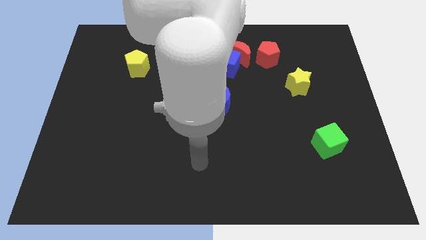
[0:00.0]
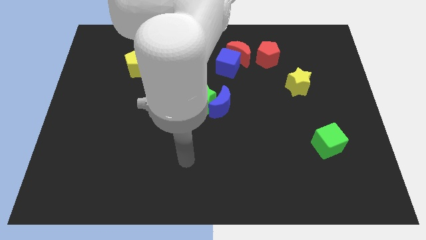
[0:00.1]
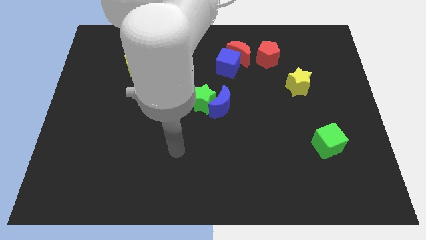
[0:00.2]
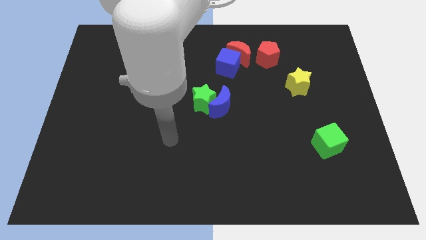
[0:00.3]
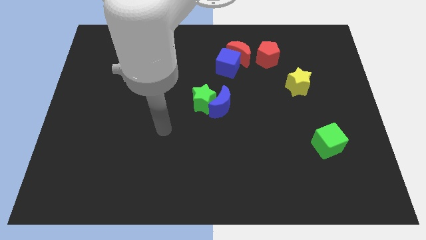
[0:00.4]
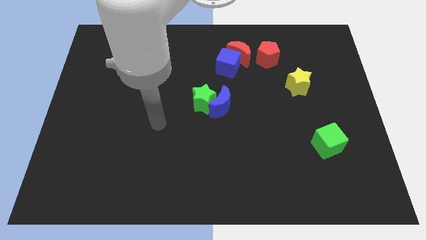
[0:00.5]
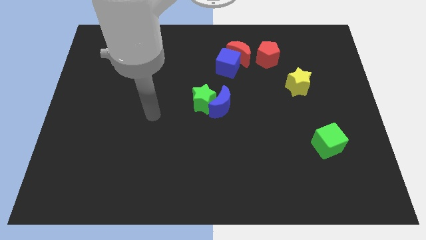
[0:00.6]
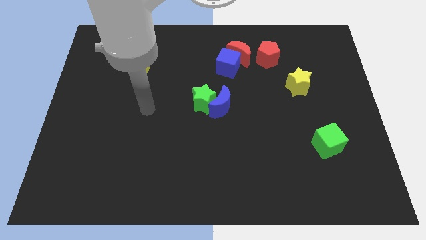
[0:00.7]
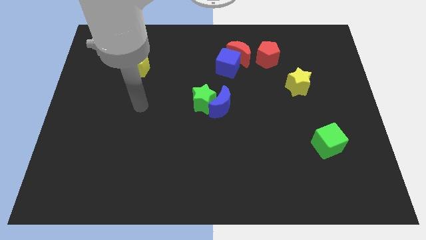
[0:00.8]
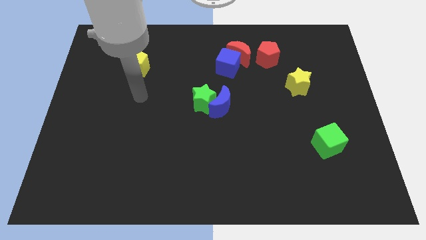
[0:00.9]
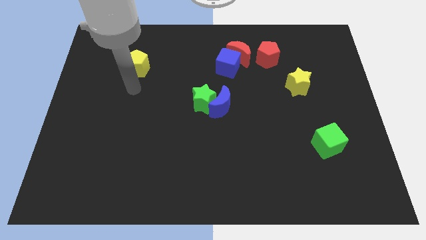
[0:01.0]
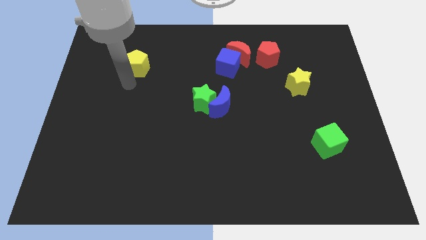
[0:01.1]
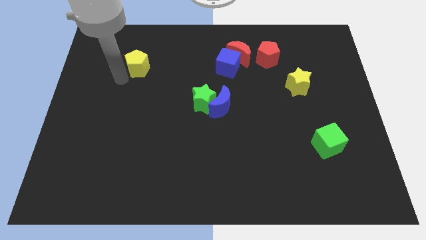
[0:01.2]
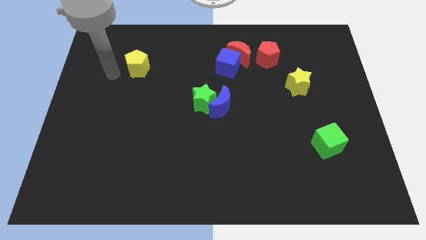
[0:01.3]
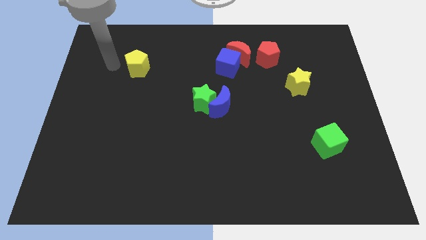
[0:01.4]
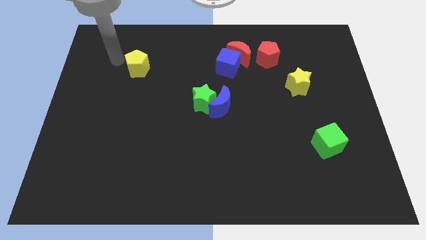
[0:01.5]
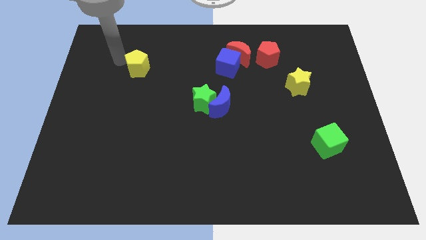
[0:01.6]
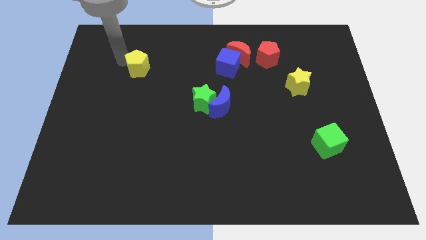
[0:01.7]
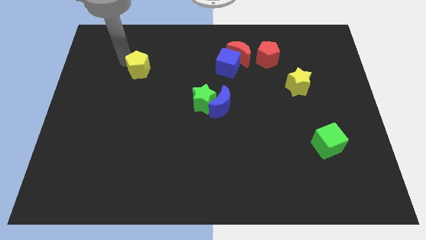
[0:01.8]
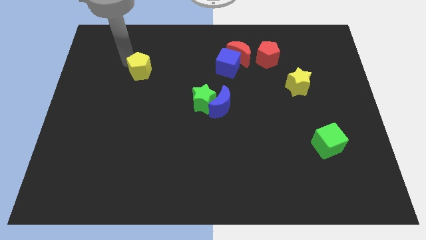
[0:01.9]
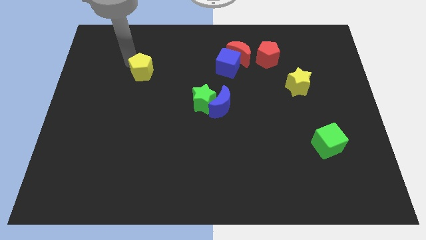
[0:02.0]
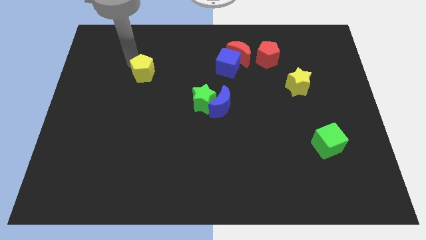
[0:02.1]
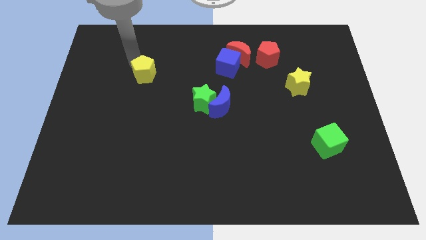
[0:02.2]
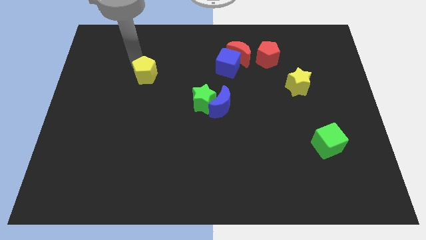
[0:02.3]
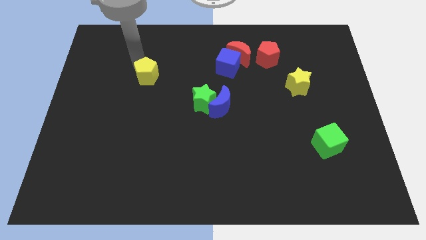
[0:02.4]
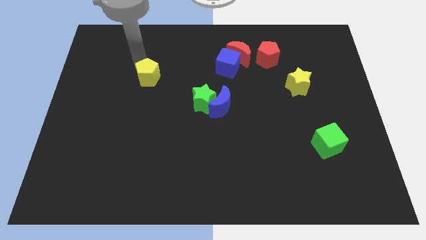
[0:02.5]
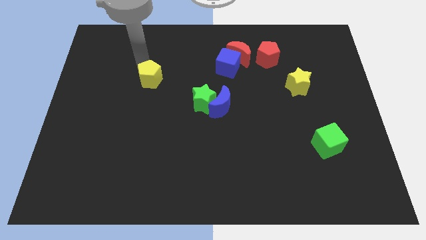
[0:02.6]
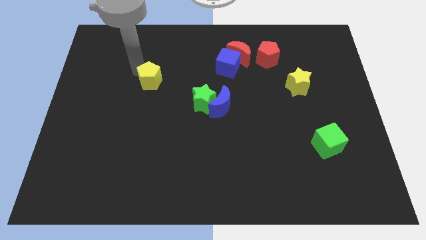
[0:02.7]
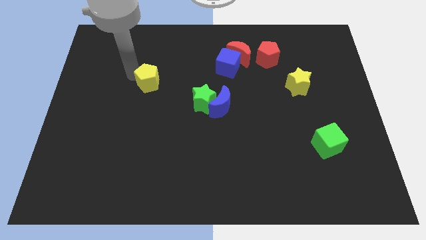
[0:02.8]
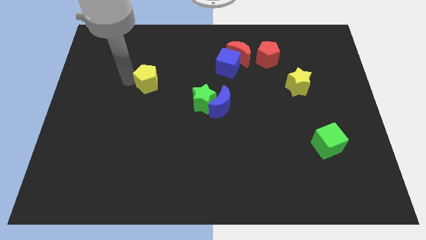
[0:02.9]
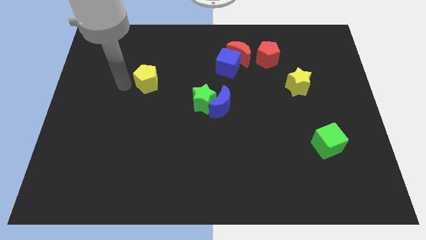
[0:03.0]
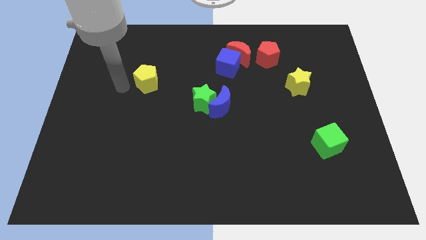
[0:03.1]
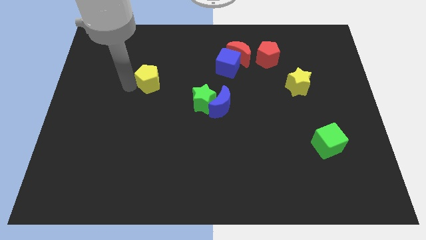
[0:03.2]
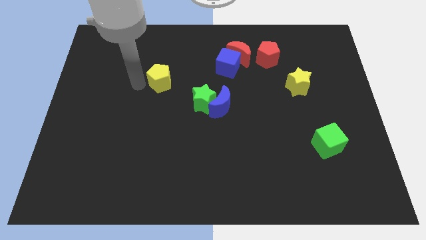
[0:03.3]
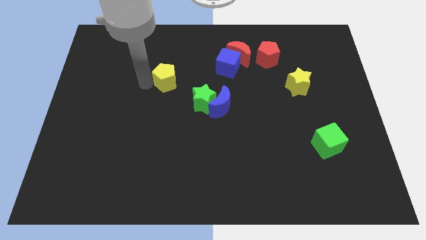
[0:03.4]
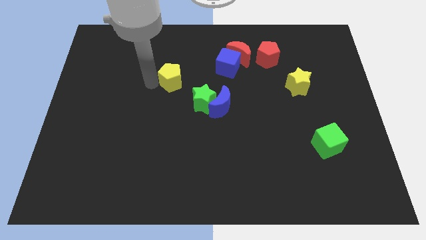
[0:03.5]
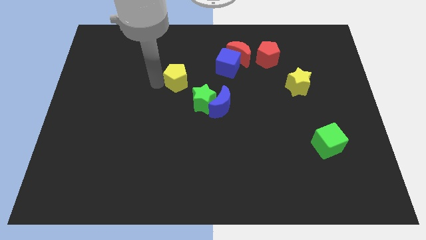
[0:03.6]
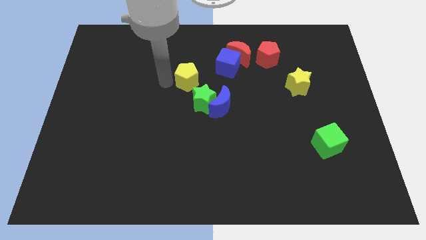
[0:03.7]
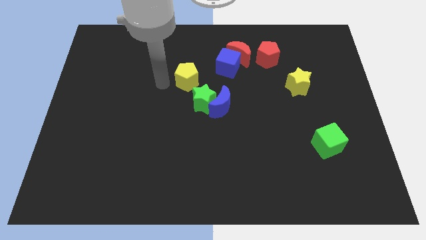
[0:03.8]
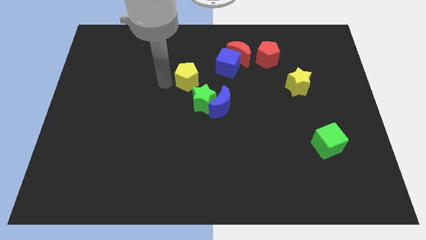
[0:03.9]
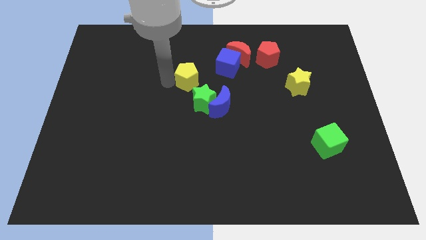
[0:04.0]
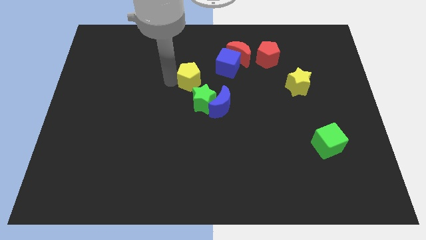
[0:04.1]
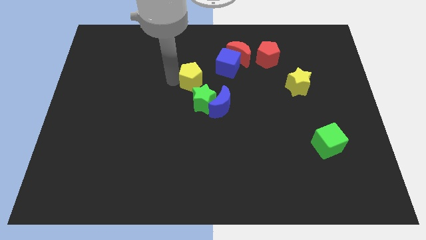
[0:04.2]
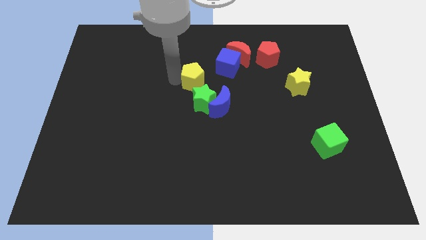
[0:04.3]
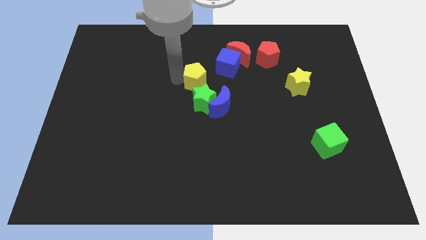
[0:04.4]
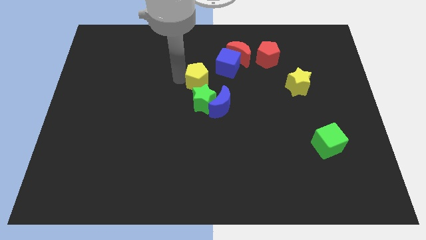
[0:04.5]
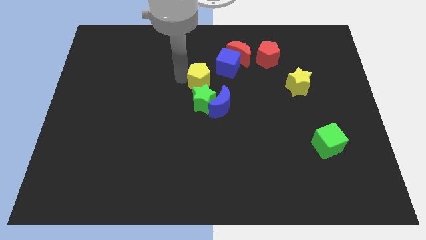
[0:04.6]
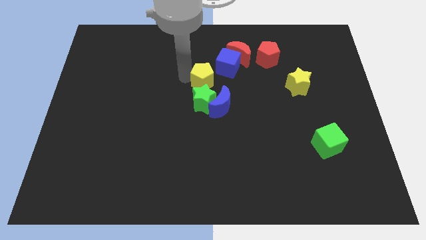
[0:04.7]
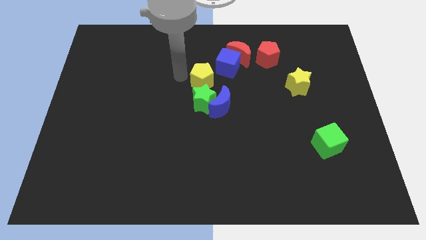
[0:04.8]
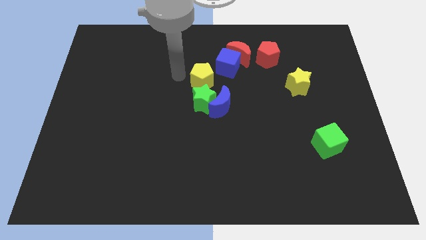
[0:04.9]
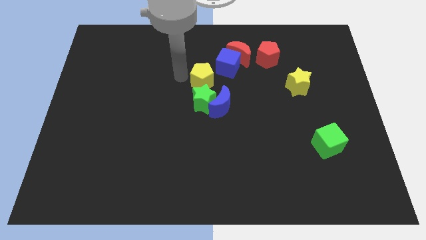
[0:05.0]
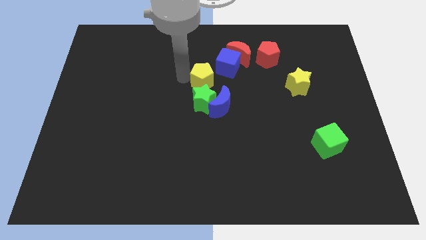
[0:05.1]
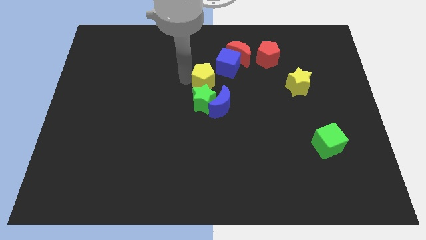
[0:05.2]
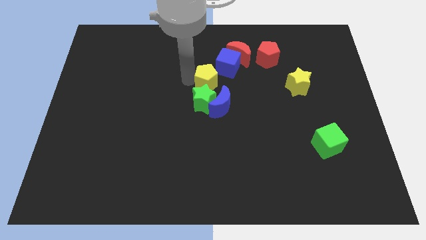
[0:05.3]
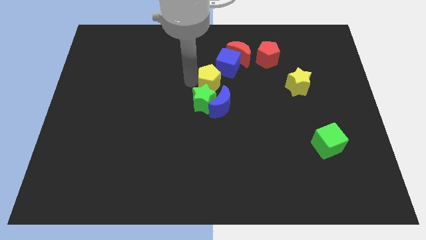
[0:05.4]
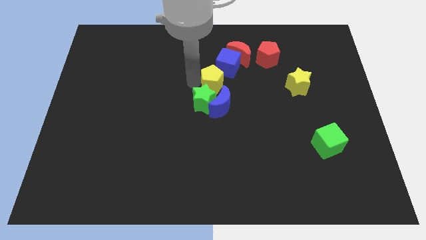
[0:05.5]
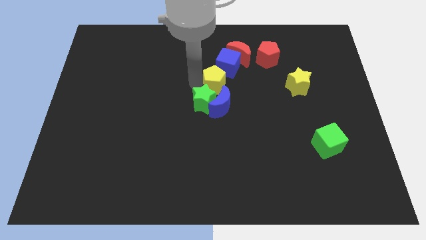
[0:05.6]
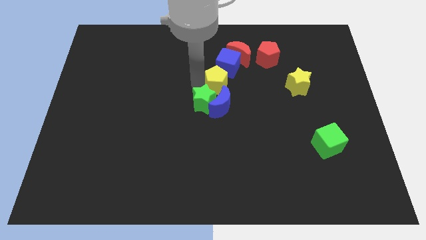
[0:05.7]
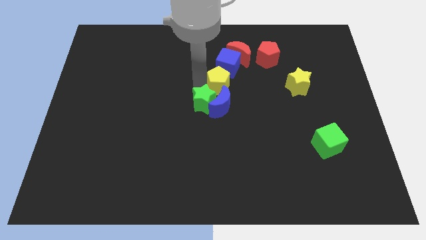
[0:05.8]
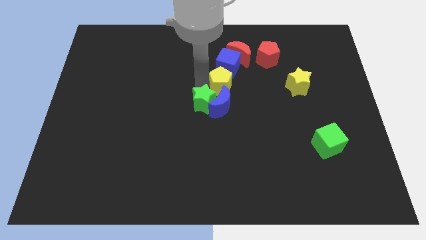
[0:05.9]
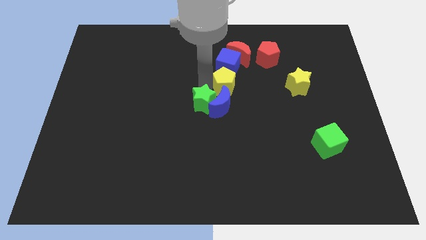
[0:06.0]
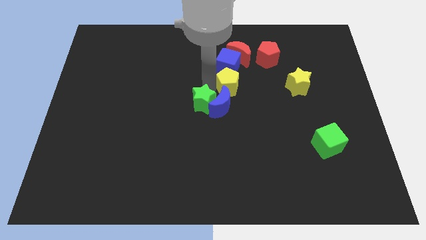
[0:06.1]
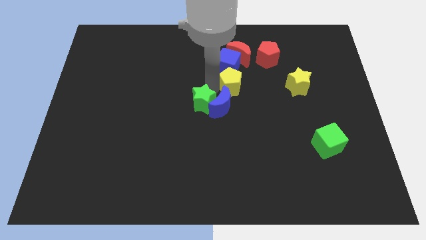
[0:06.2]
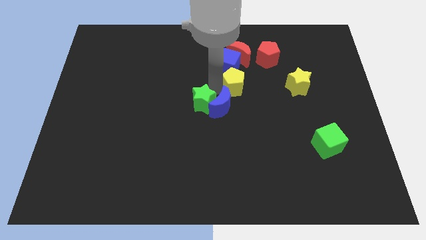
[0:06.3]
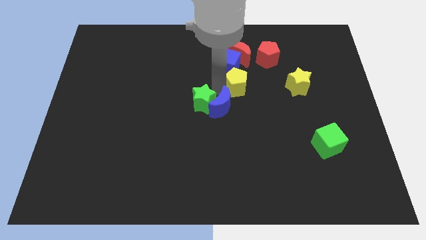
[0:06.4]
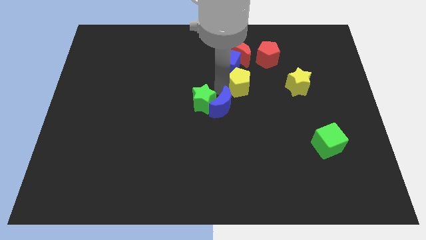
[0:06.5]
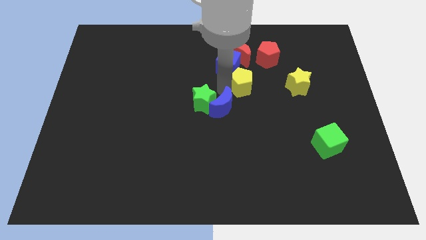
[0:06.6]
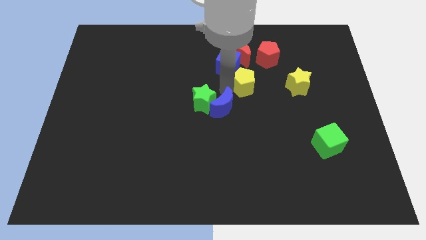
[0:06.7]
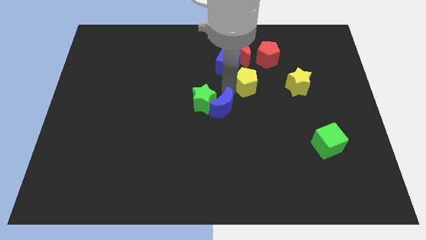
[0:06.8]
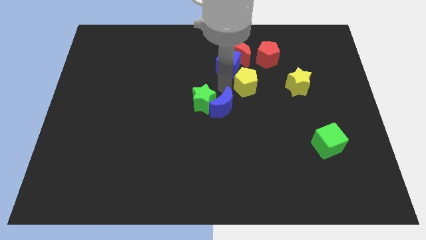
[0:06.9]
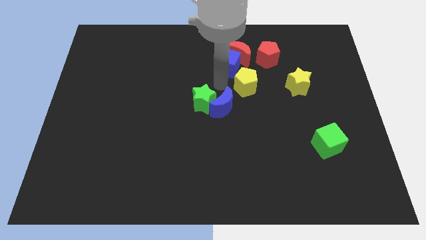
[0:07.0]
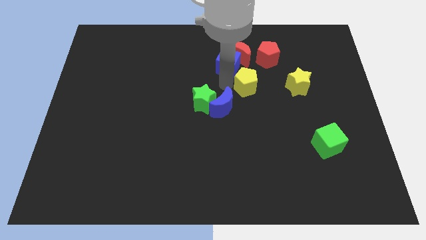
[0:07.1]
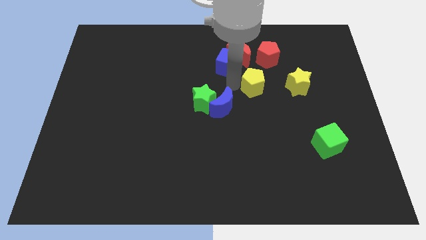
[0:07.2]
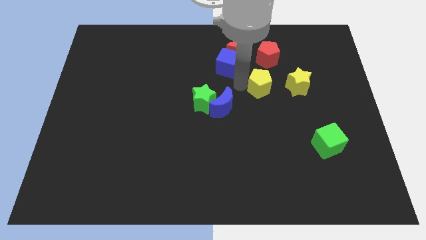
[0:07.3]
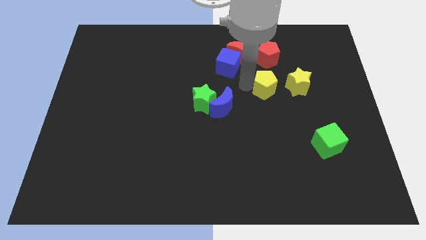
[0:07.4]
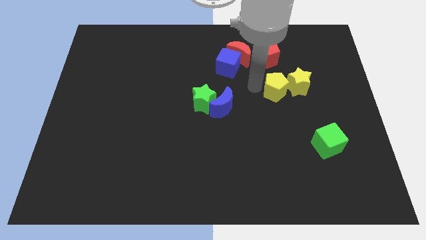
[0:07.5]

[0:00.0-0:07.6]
slide the yellow pentagon to the yellow star
